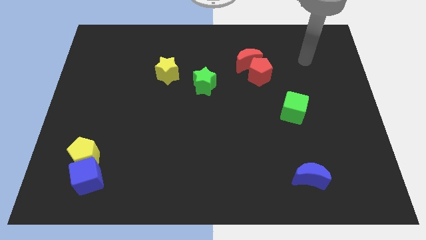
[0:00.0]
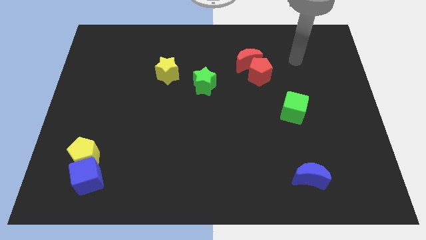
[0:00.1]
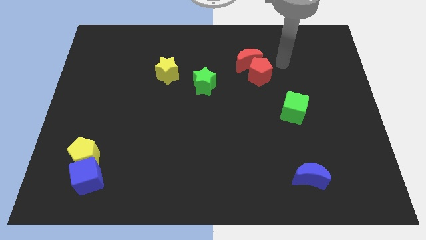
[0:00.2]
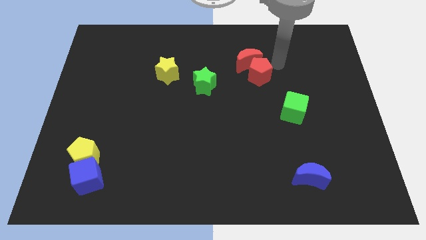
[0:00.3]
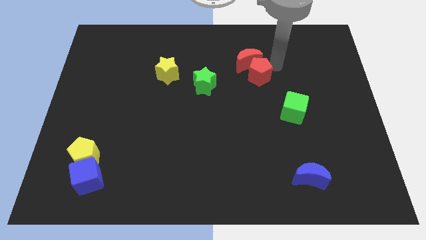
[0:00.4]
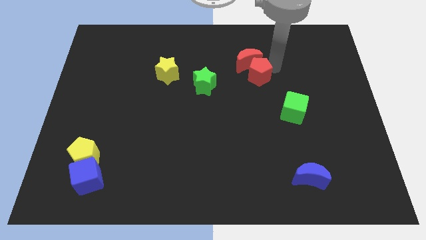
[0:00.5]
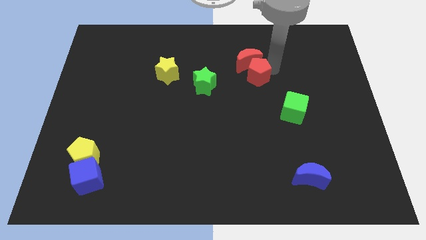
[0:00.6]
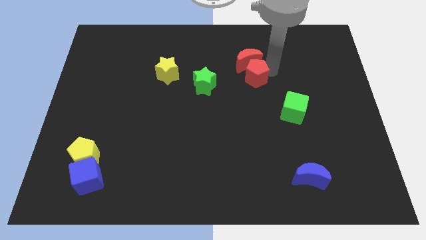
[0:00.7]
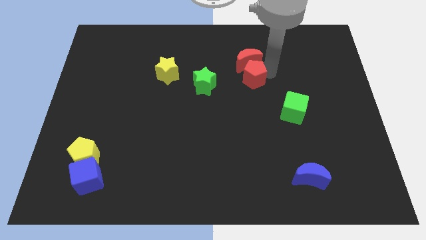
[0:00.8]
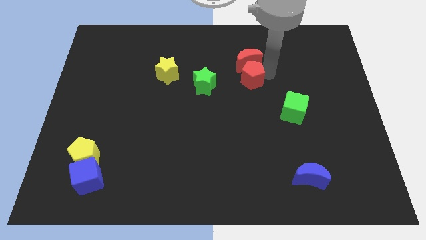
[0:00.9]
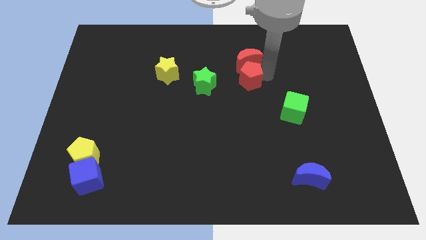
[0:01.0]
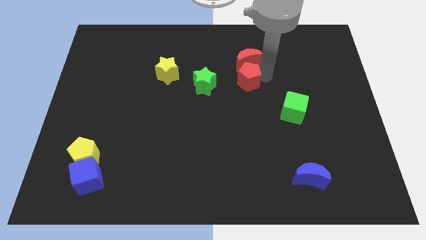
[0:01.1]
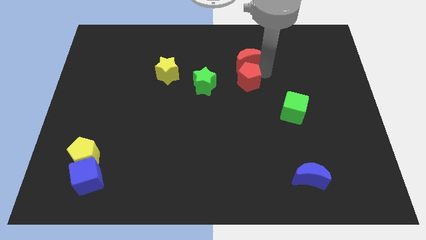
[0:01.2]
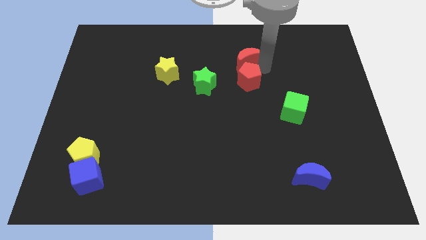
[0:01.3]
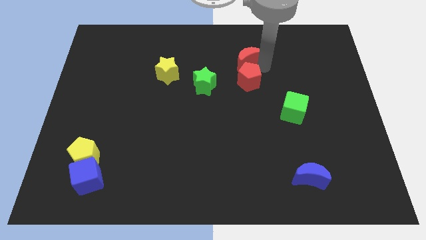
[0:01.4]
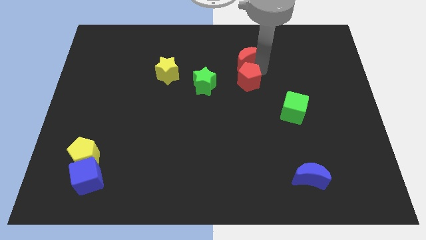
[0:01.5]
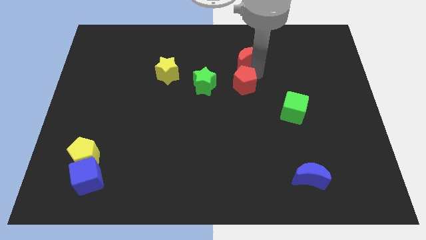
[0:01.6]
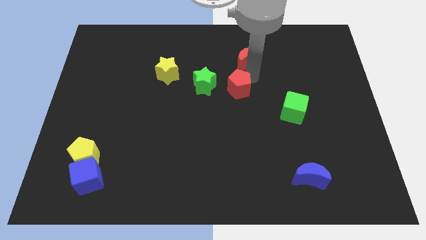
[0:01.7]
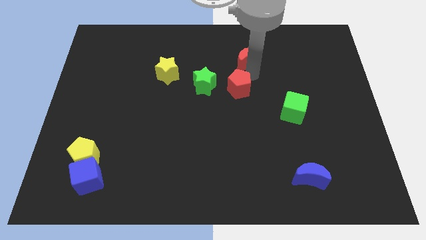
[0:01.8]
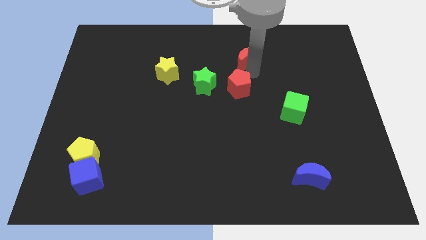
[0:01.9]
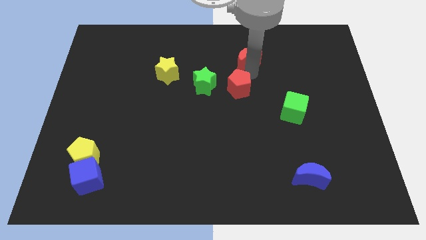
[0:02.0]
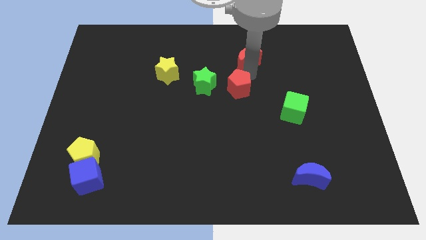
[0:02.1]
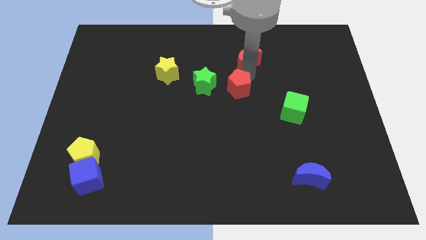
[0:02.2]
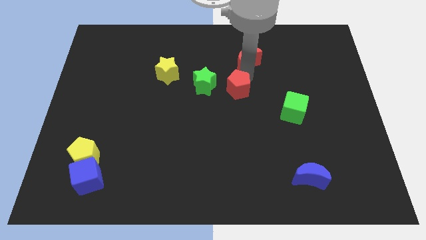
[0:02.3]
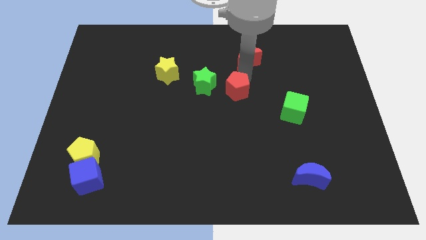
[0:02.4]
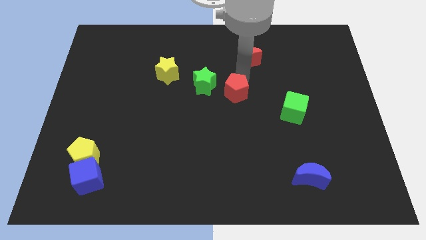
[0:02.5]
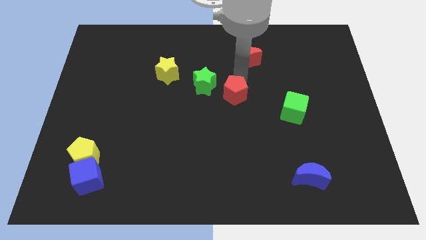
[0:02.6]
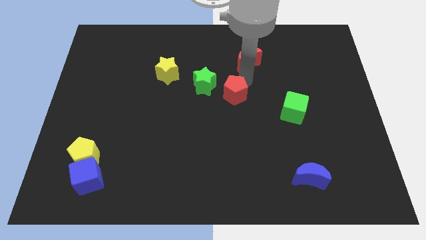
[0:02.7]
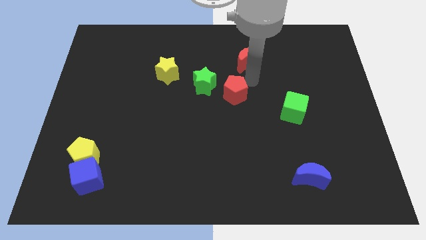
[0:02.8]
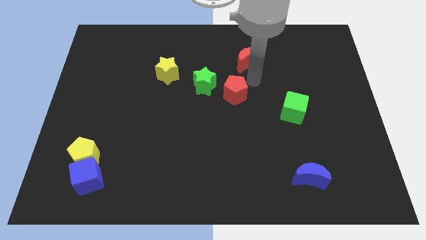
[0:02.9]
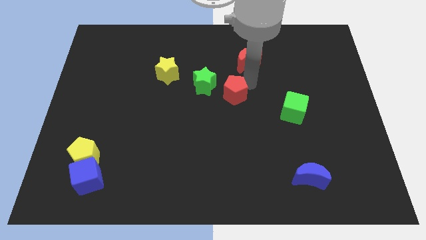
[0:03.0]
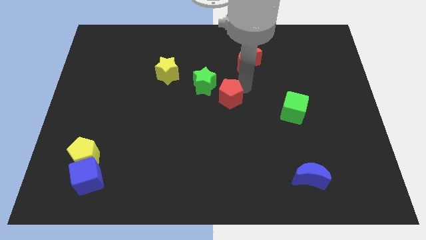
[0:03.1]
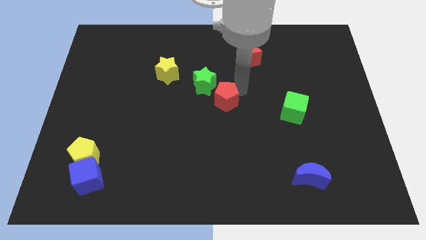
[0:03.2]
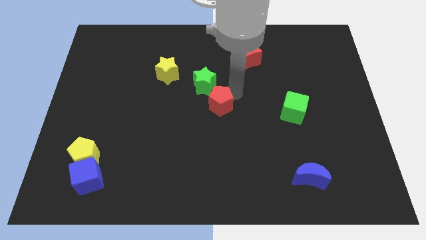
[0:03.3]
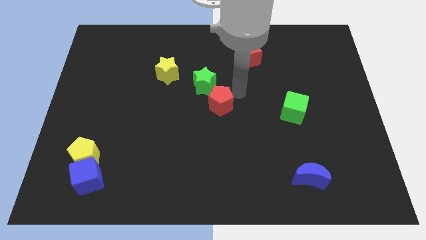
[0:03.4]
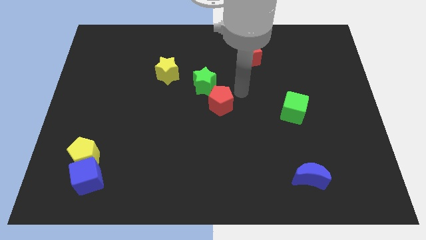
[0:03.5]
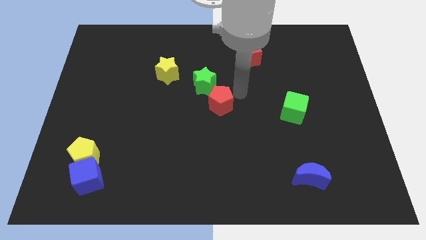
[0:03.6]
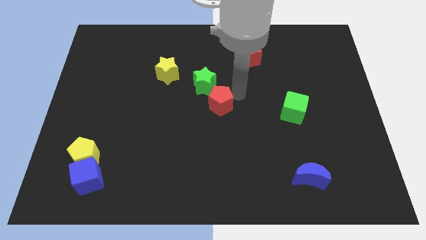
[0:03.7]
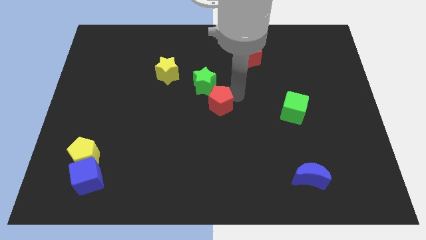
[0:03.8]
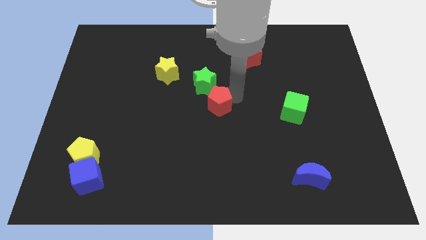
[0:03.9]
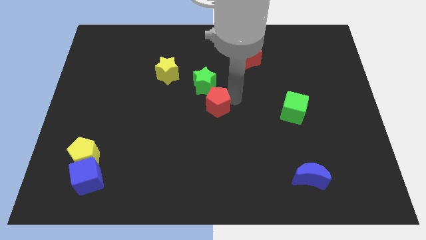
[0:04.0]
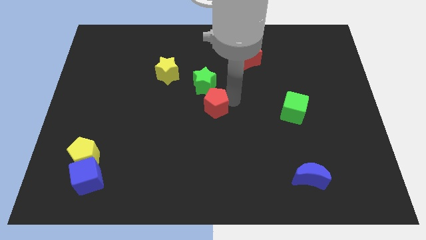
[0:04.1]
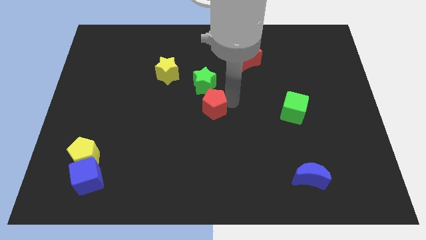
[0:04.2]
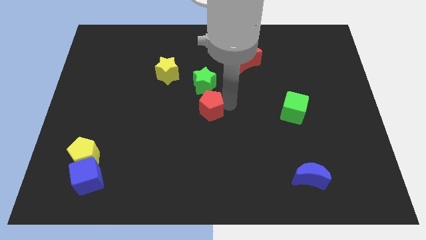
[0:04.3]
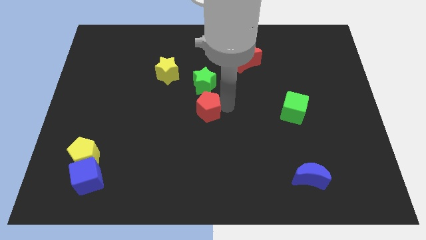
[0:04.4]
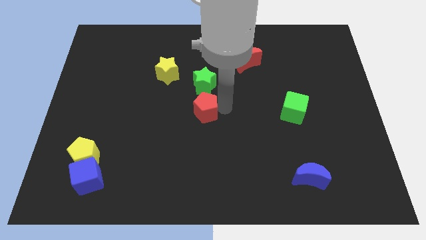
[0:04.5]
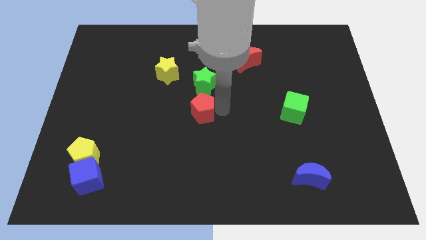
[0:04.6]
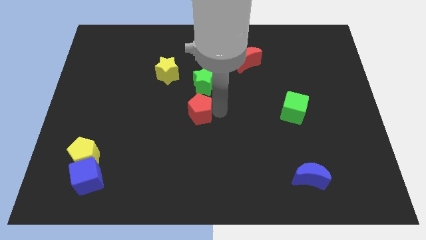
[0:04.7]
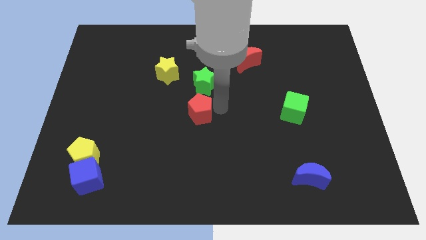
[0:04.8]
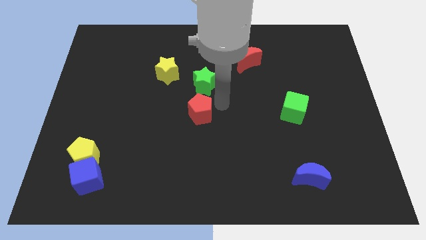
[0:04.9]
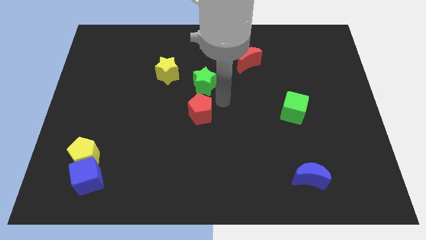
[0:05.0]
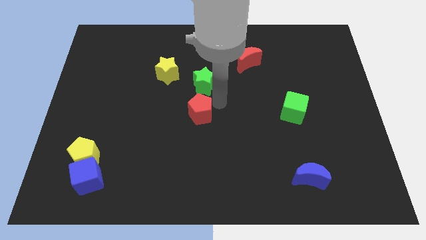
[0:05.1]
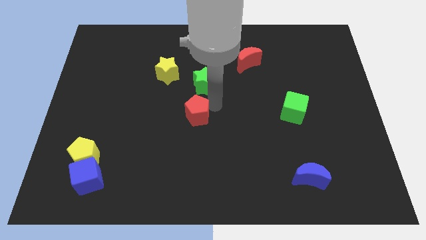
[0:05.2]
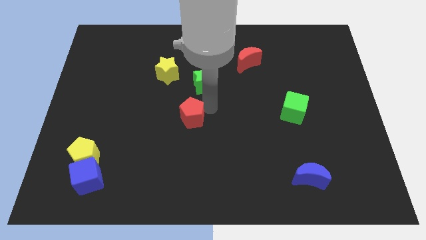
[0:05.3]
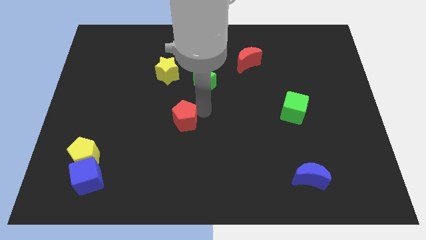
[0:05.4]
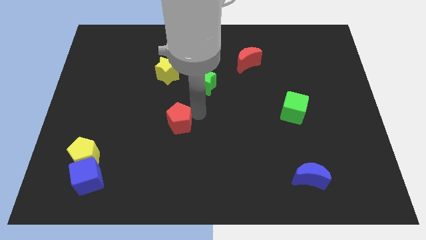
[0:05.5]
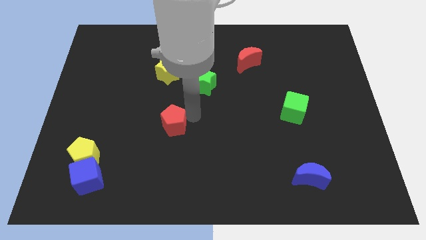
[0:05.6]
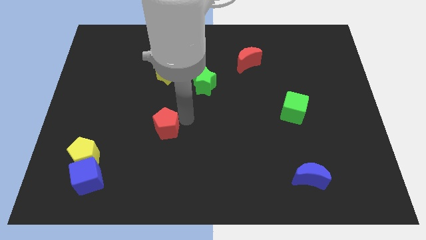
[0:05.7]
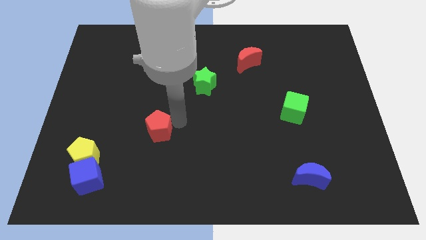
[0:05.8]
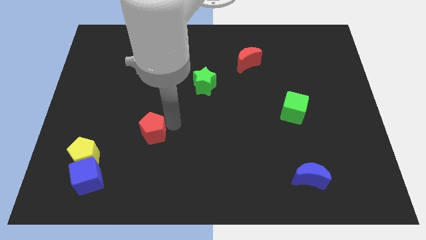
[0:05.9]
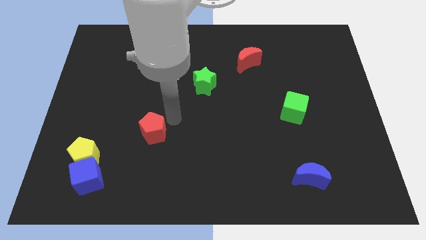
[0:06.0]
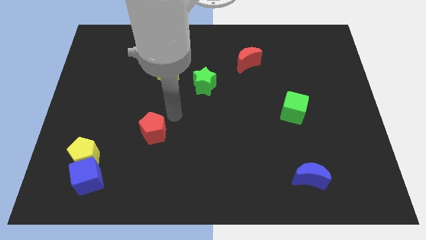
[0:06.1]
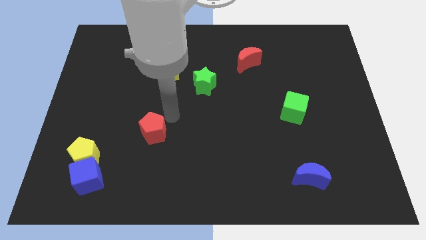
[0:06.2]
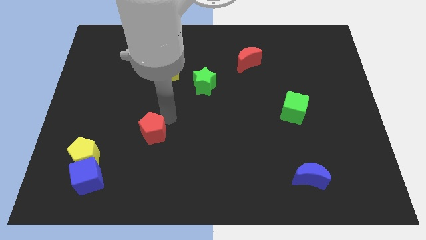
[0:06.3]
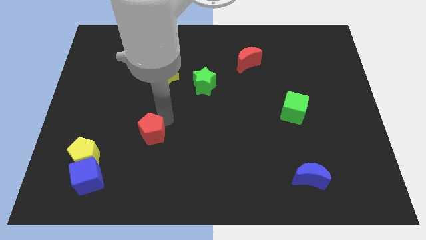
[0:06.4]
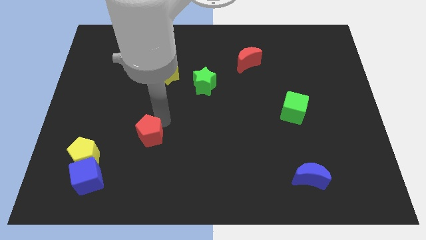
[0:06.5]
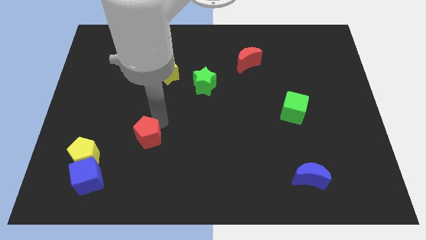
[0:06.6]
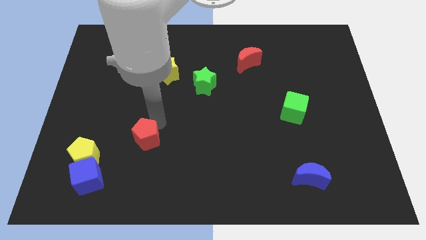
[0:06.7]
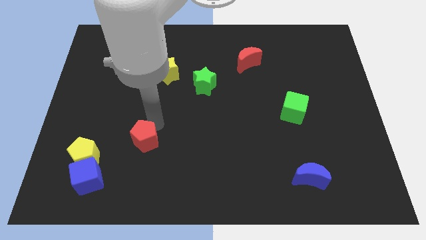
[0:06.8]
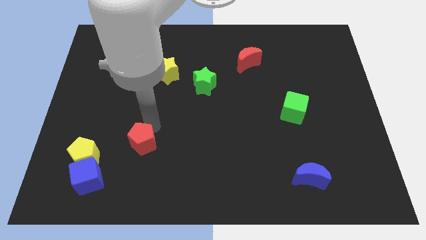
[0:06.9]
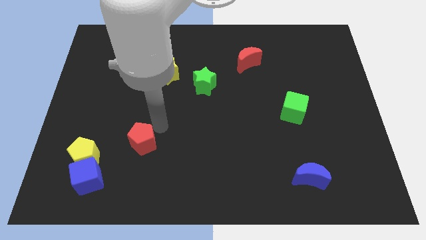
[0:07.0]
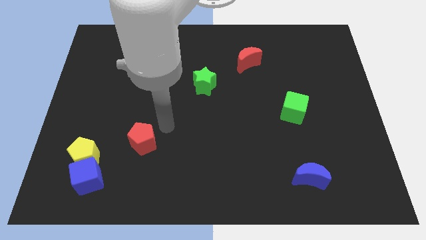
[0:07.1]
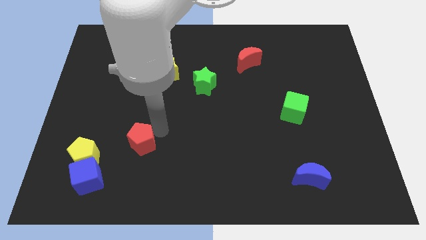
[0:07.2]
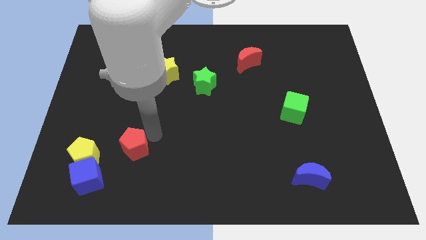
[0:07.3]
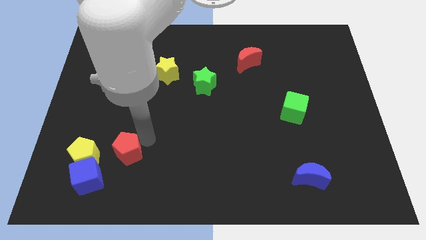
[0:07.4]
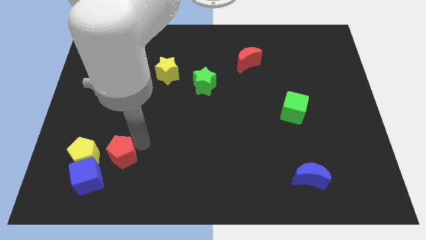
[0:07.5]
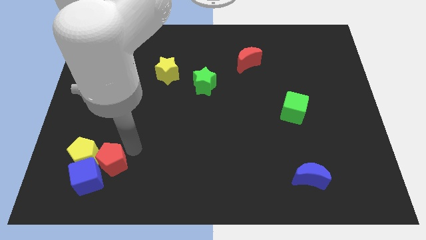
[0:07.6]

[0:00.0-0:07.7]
push the red pentagon towards the blue cube
